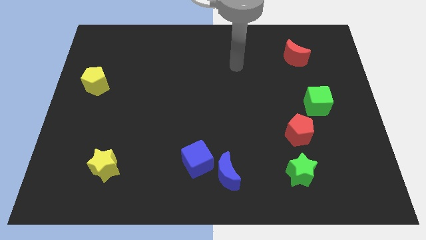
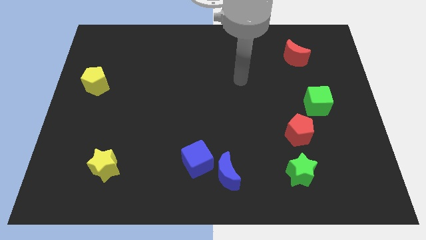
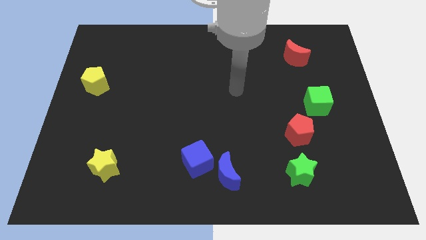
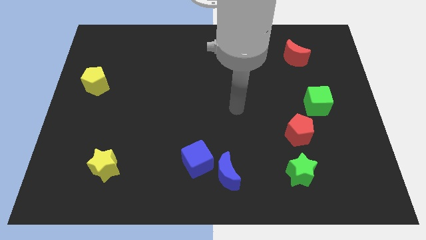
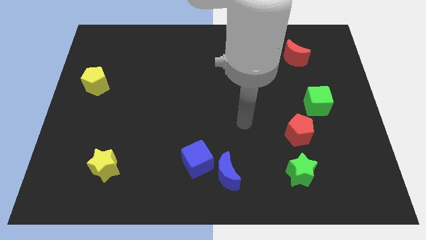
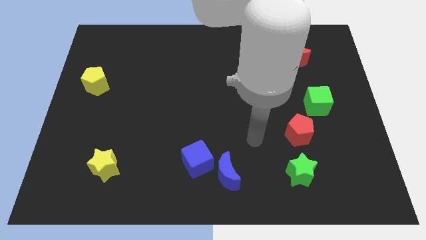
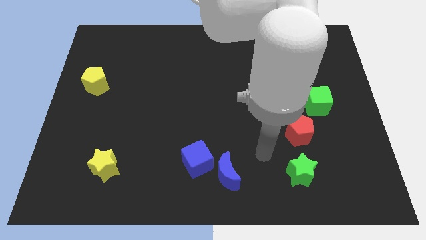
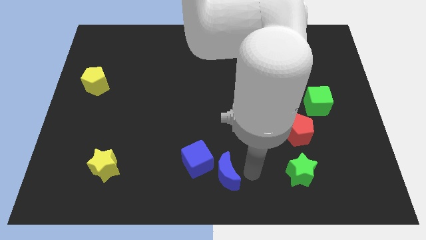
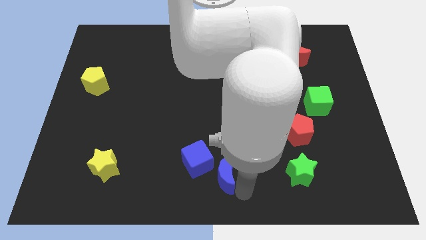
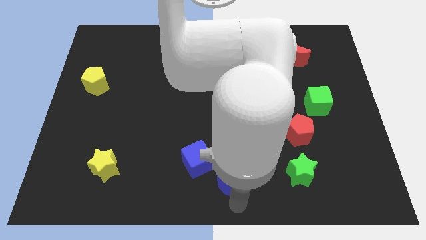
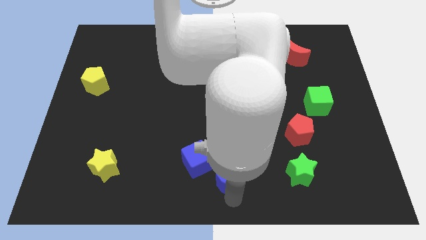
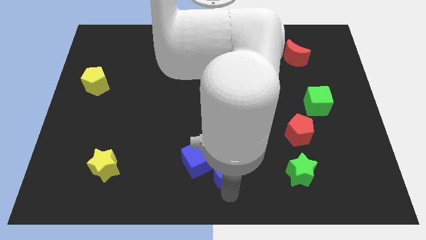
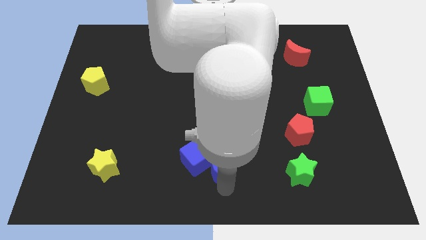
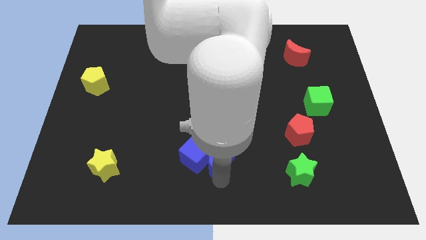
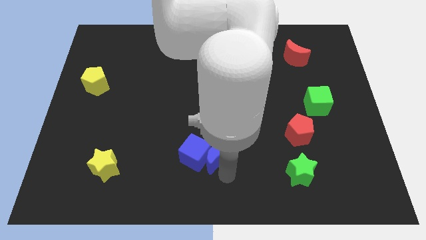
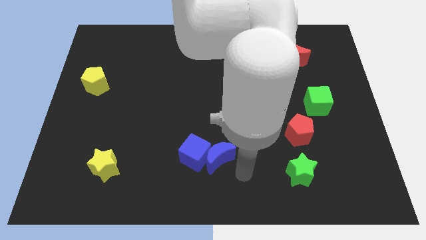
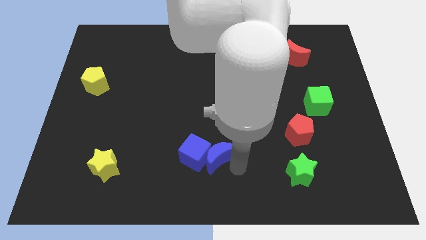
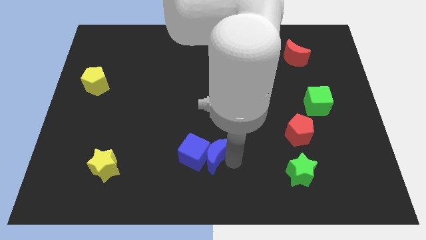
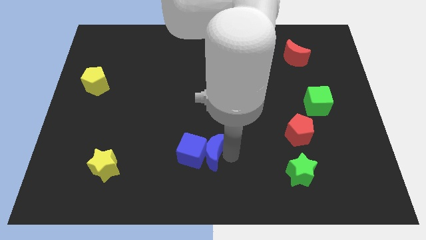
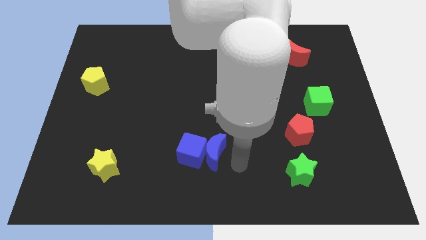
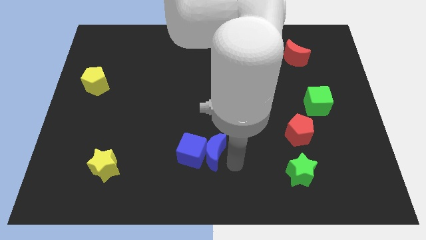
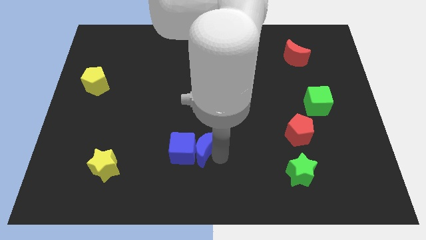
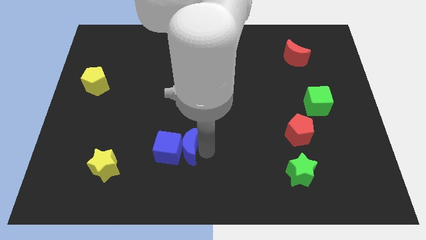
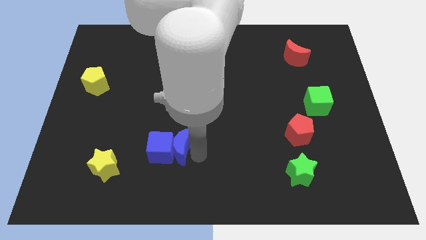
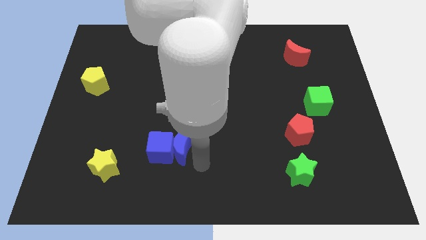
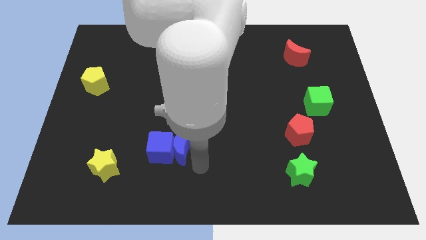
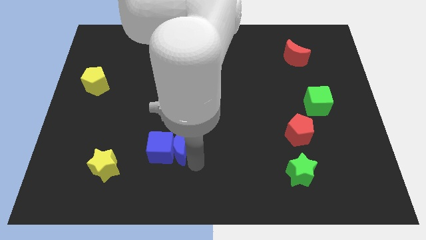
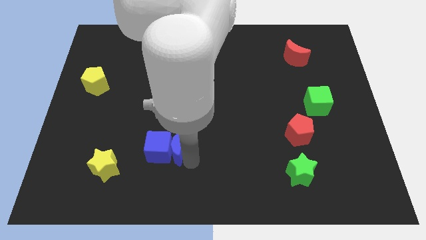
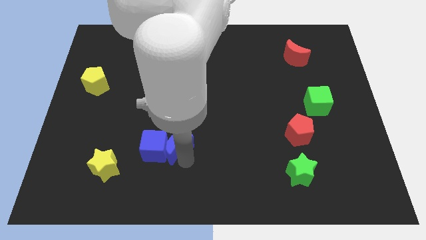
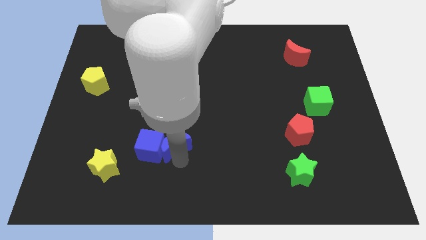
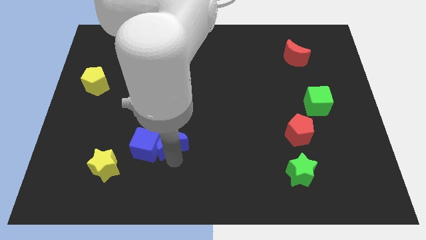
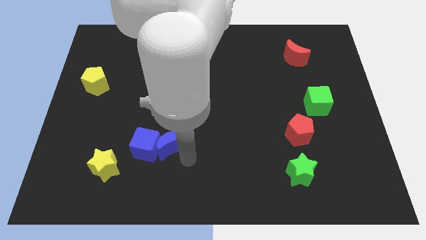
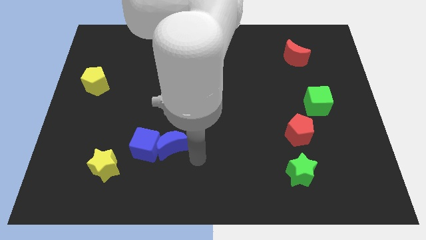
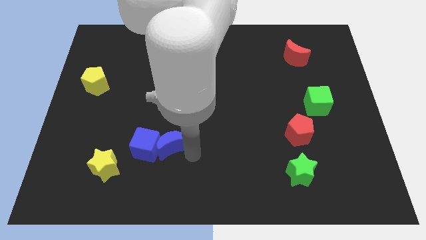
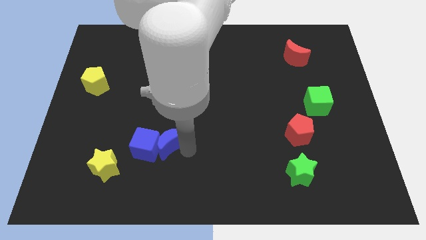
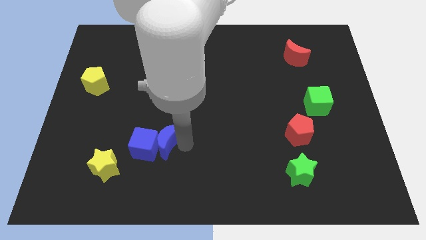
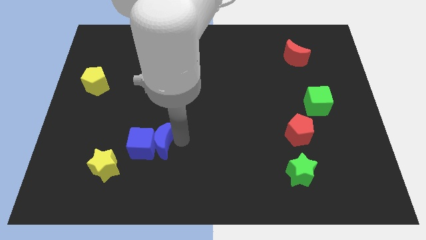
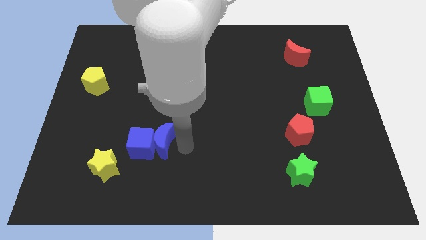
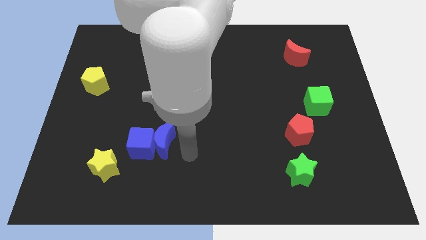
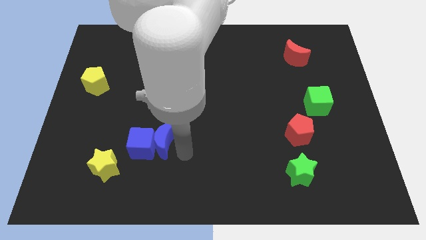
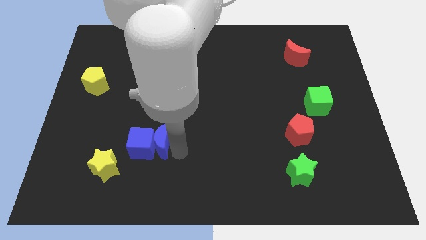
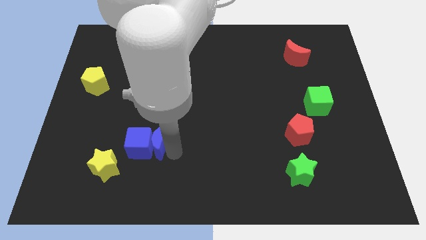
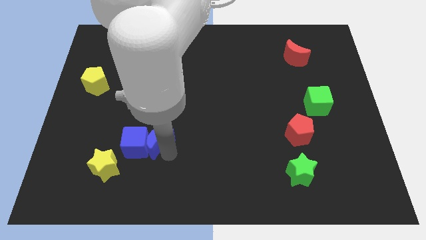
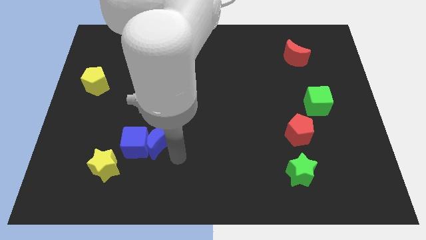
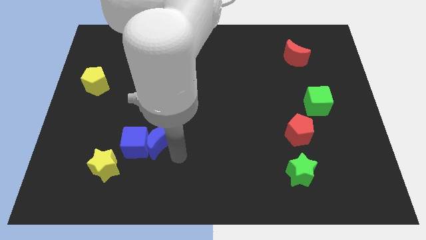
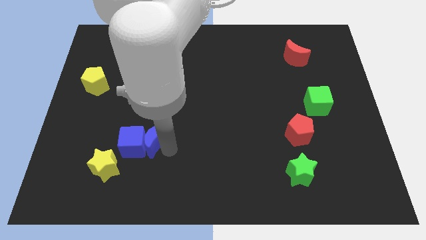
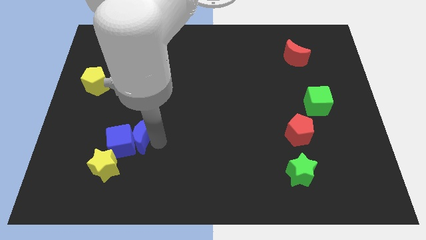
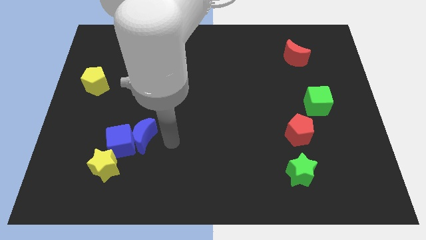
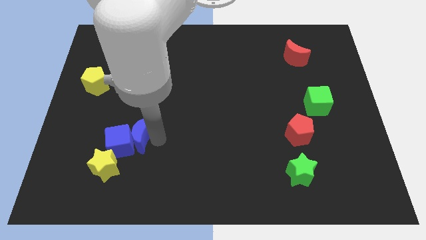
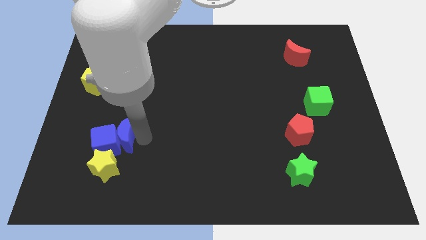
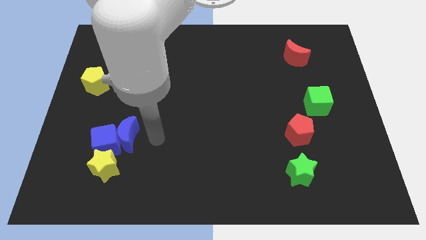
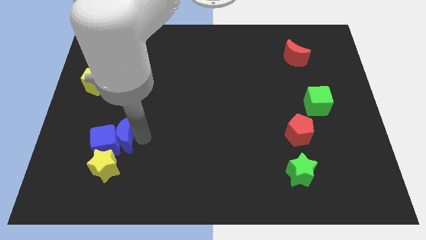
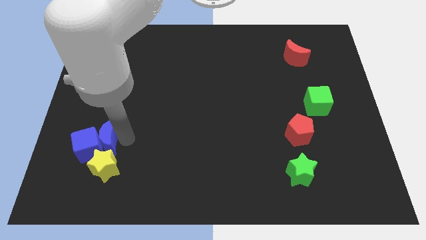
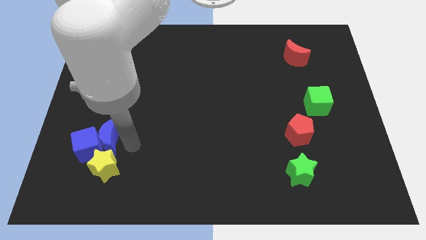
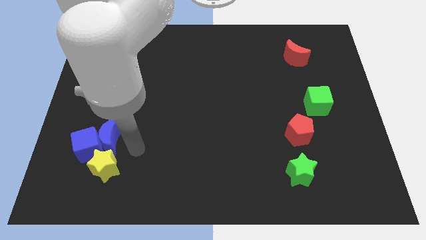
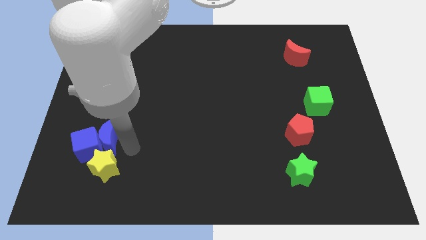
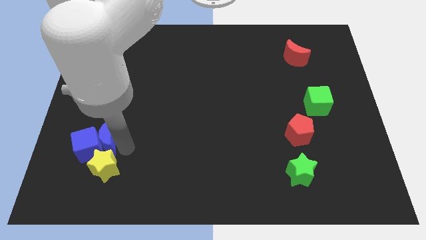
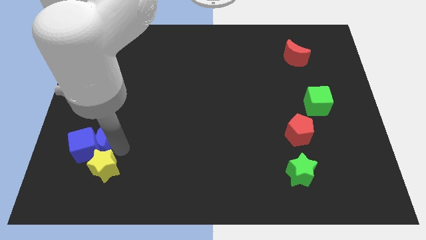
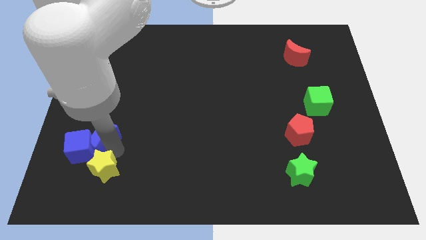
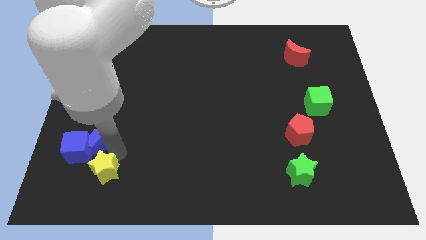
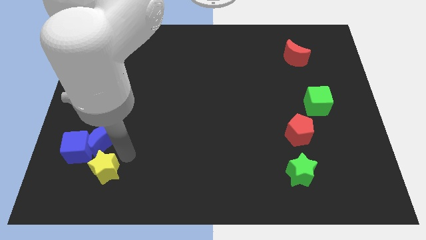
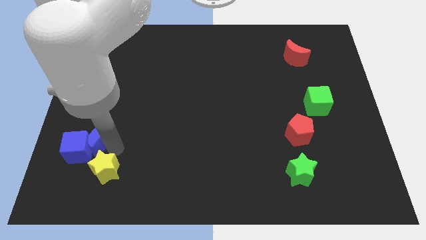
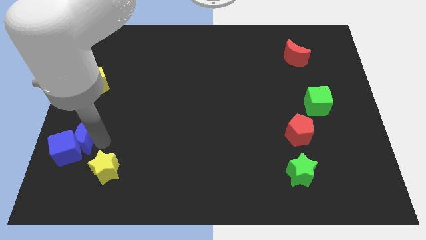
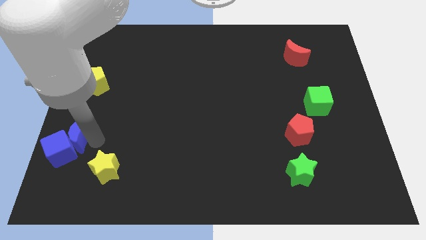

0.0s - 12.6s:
move the blue moon to the left side of the board

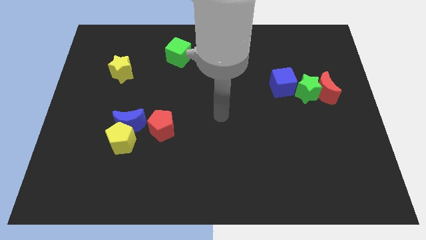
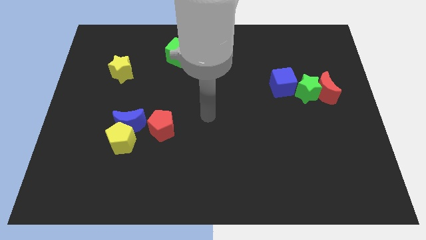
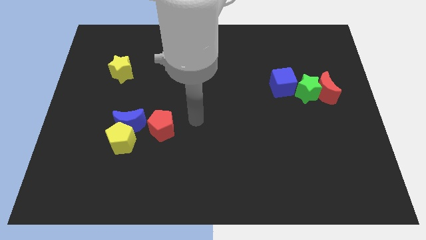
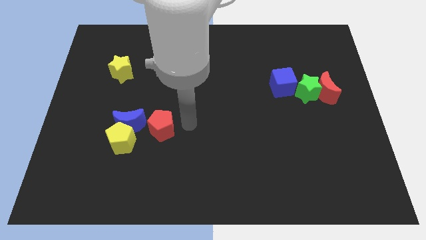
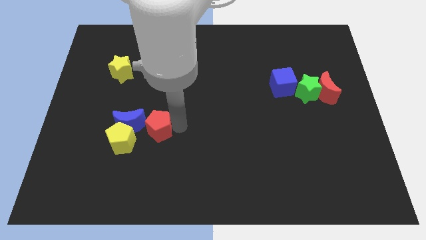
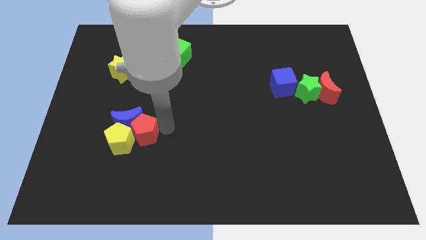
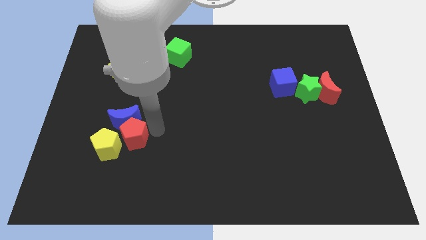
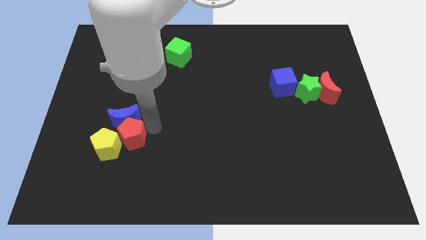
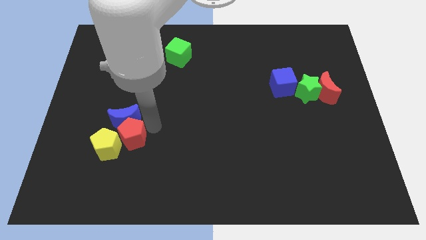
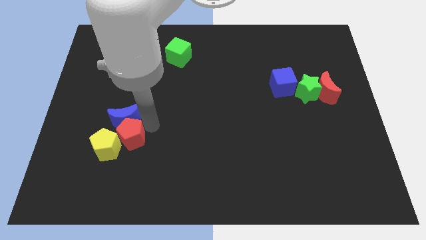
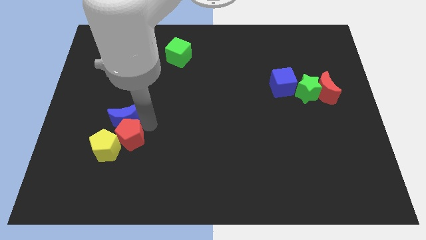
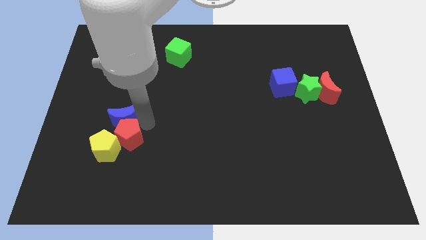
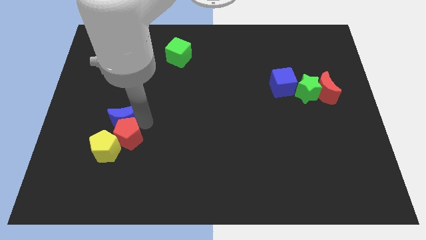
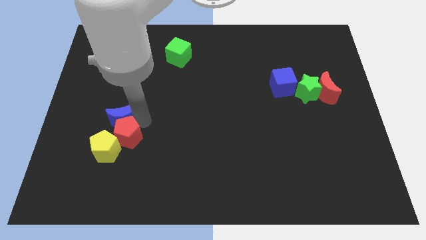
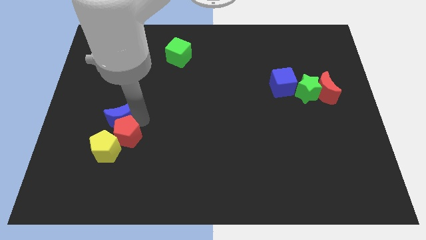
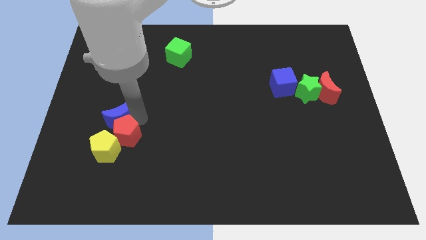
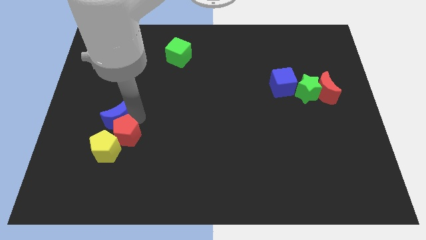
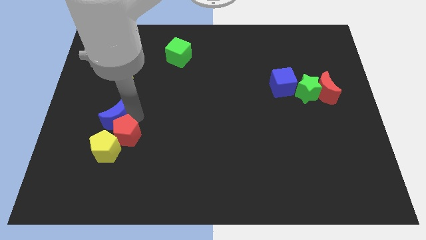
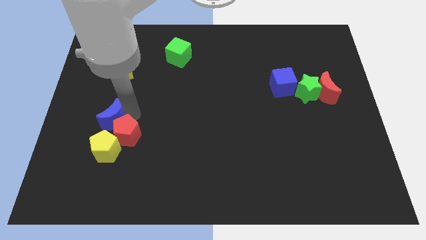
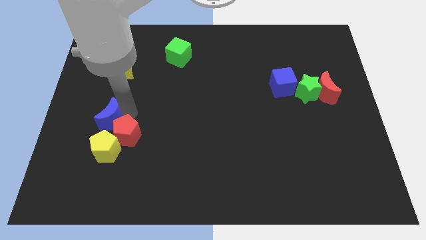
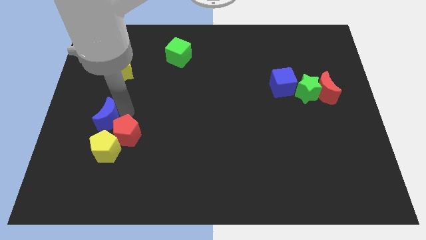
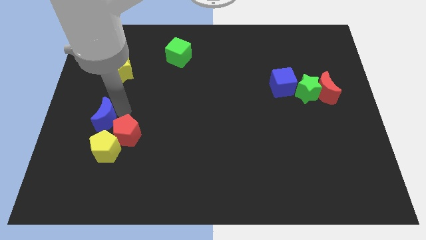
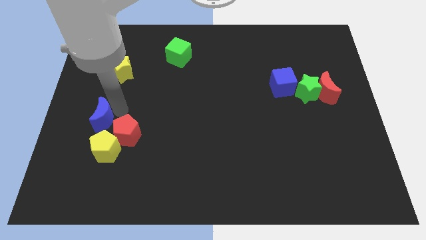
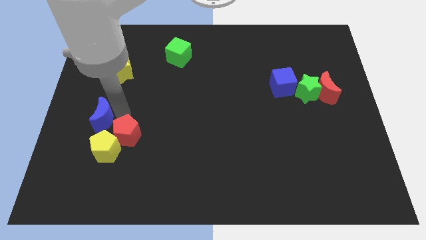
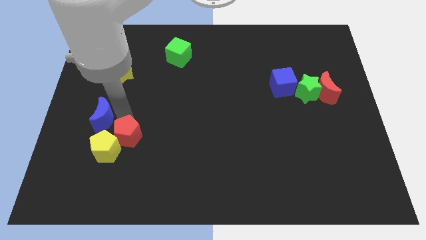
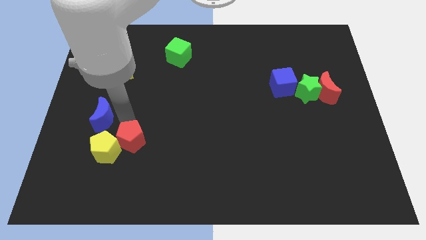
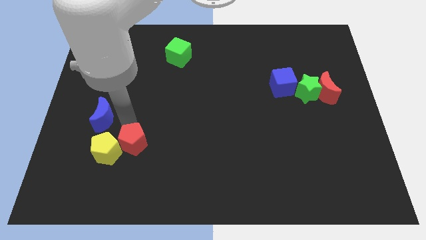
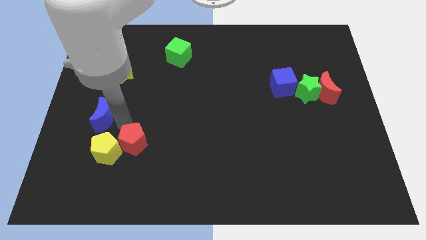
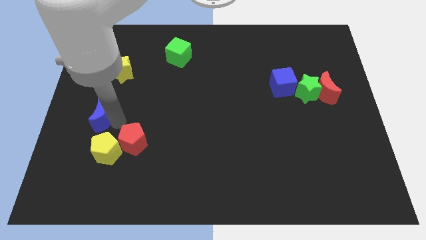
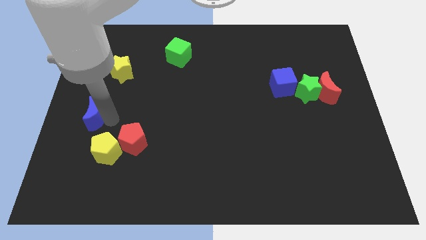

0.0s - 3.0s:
push the blue moon to the center left
